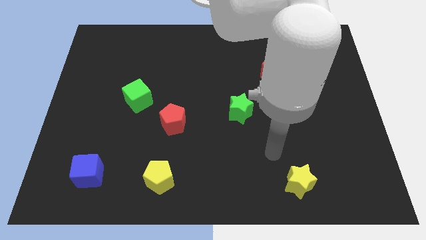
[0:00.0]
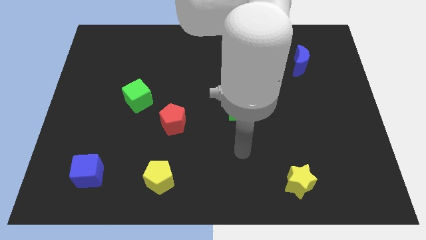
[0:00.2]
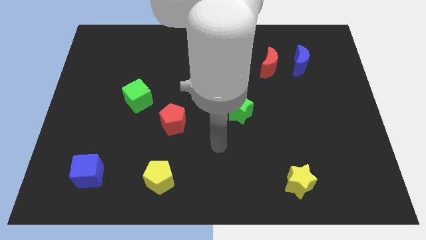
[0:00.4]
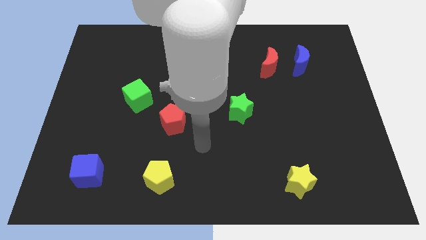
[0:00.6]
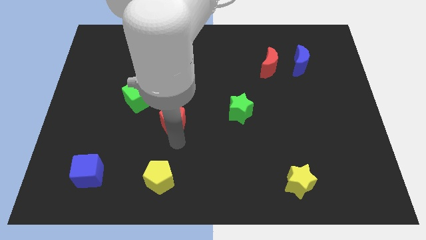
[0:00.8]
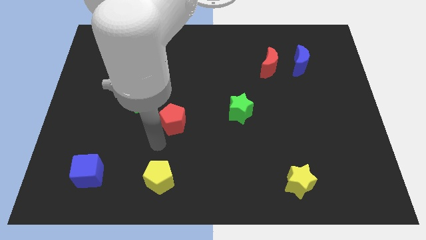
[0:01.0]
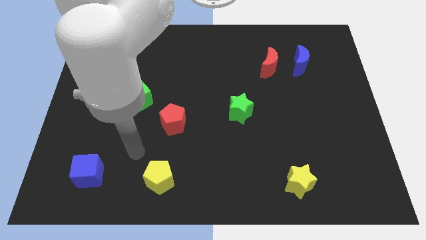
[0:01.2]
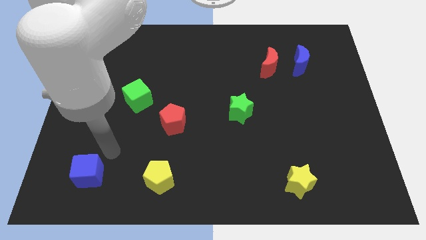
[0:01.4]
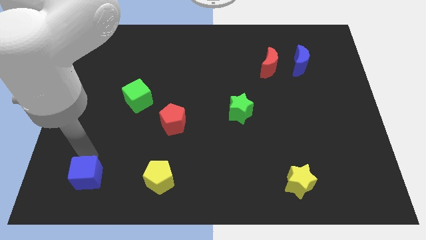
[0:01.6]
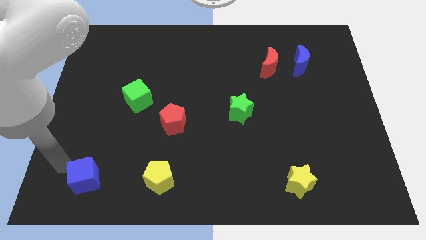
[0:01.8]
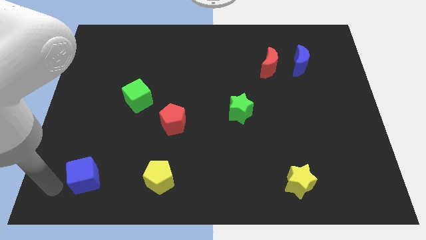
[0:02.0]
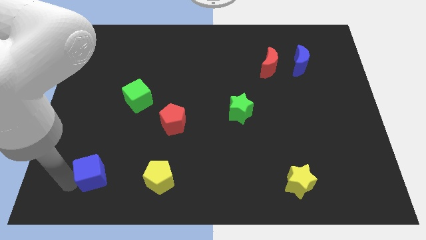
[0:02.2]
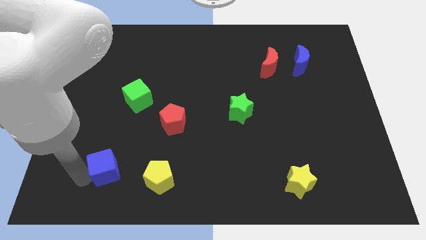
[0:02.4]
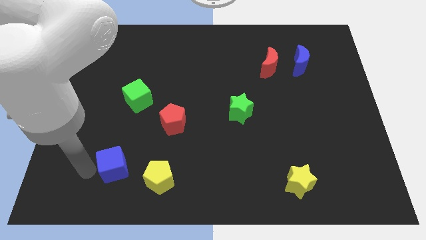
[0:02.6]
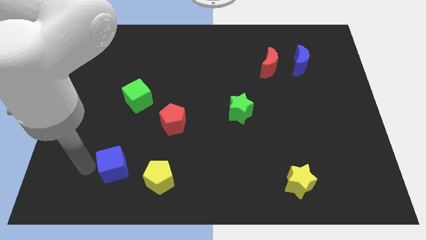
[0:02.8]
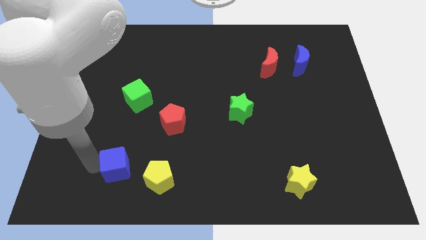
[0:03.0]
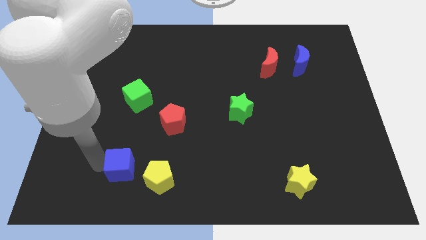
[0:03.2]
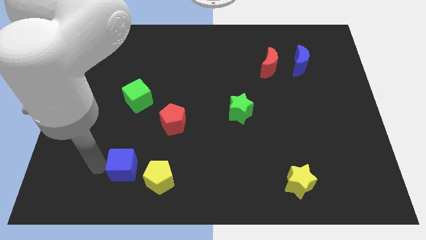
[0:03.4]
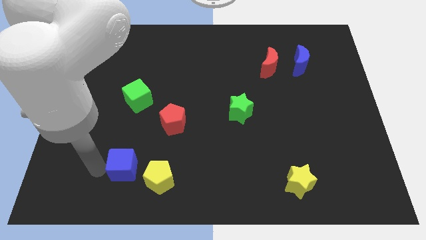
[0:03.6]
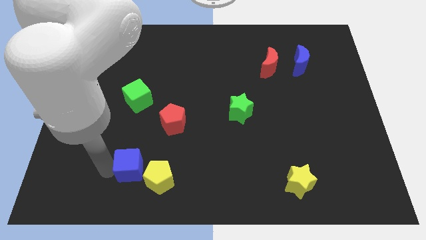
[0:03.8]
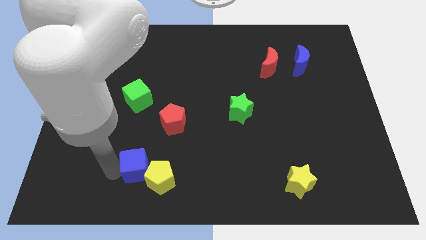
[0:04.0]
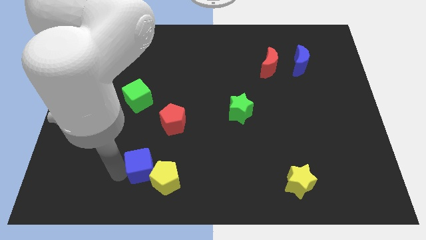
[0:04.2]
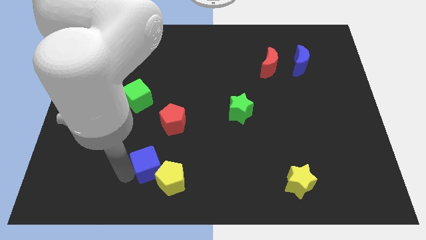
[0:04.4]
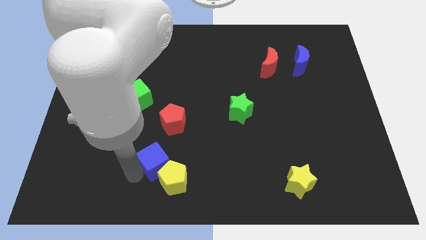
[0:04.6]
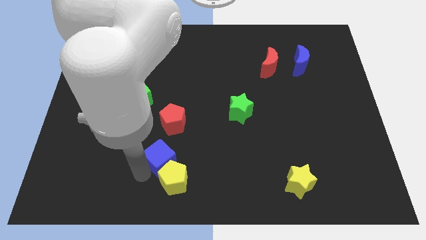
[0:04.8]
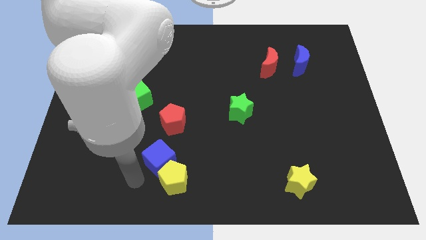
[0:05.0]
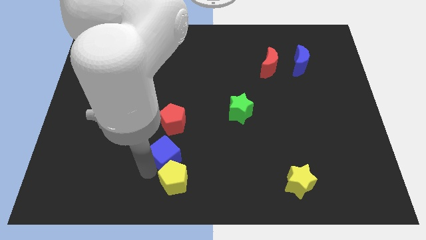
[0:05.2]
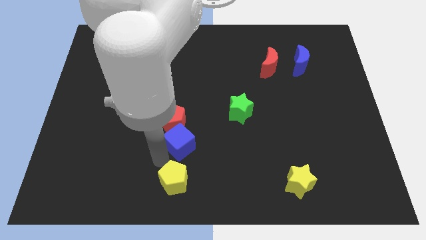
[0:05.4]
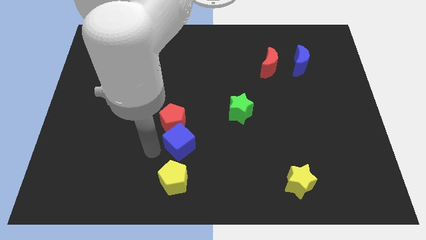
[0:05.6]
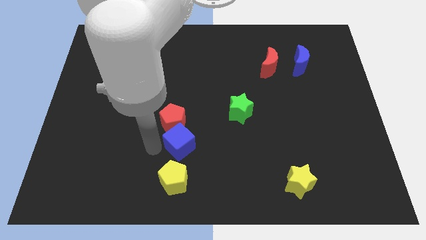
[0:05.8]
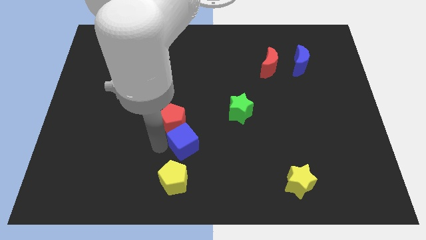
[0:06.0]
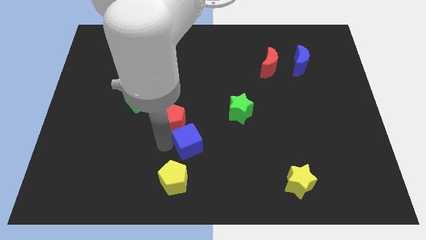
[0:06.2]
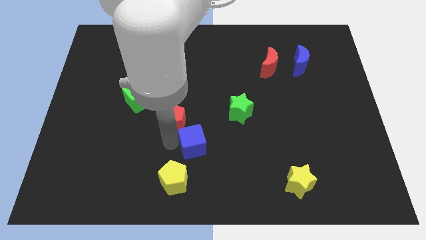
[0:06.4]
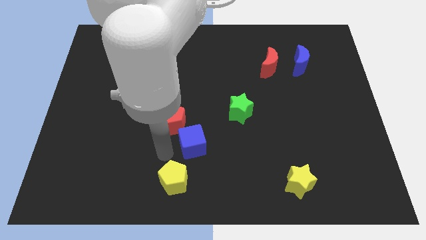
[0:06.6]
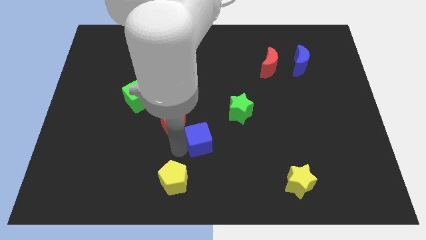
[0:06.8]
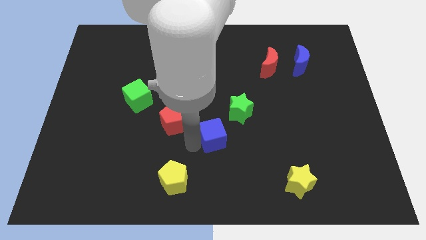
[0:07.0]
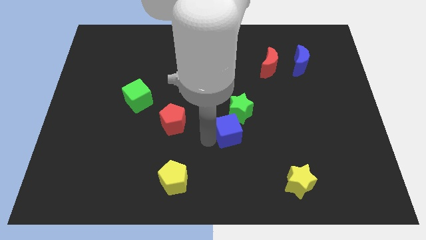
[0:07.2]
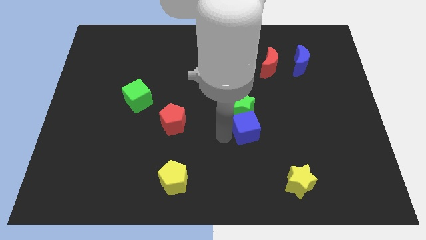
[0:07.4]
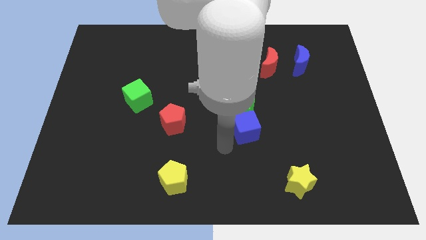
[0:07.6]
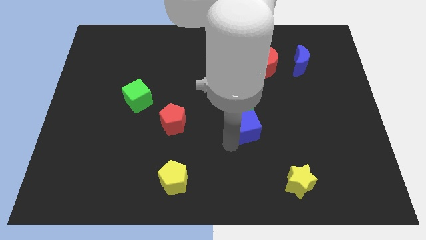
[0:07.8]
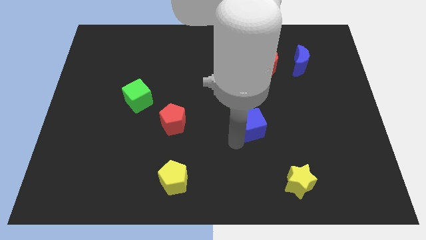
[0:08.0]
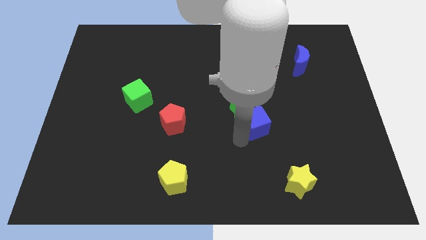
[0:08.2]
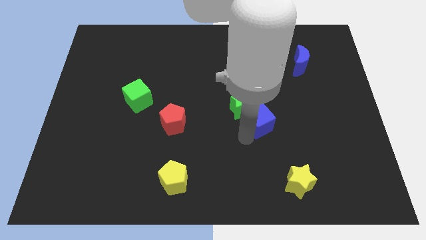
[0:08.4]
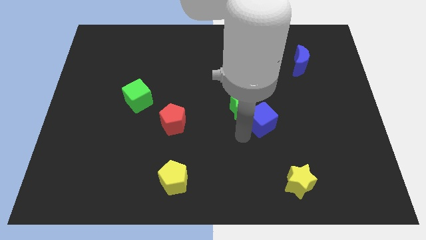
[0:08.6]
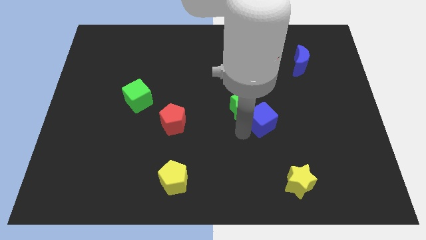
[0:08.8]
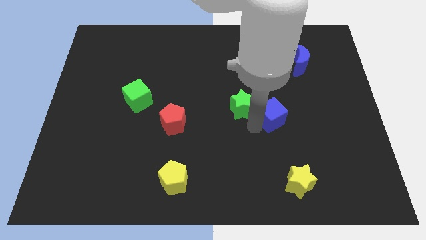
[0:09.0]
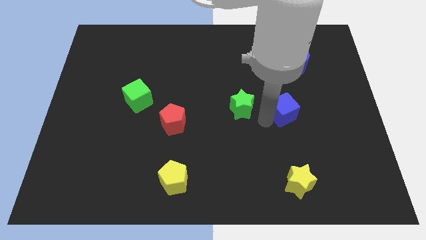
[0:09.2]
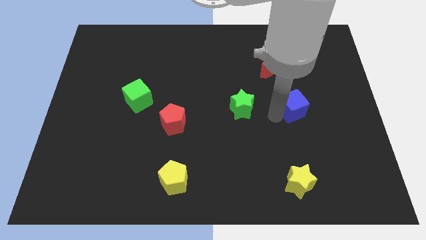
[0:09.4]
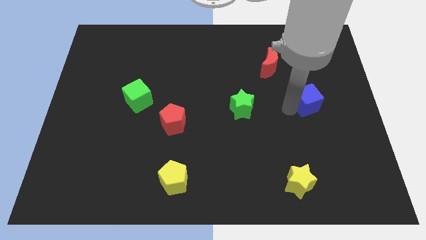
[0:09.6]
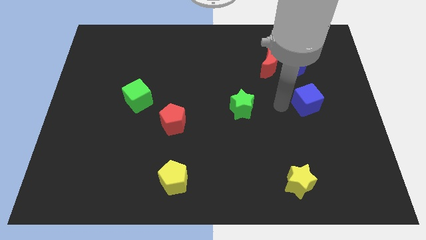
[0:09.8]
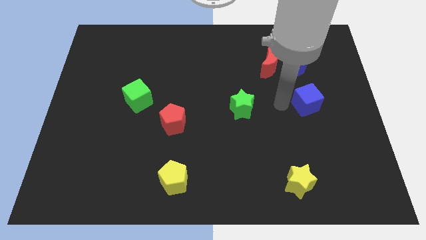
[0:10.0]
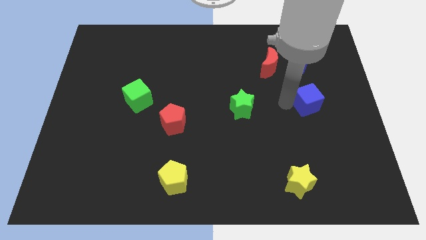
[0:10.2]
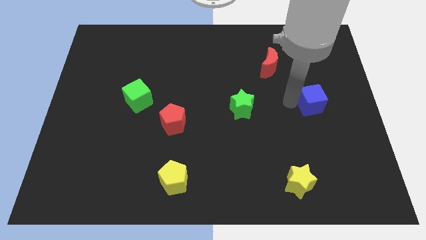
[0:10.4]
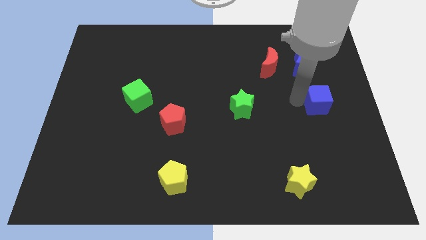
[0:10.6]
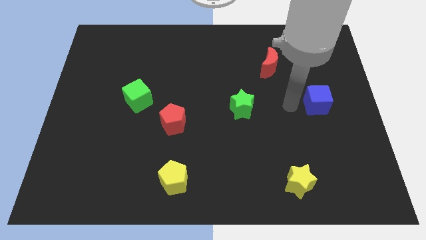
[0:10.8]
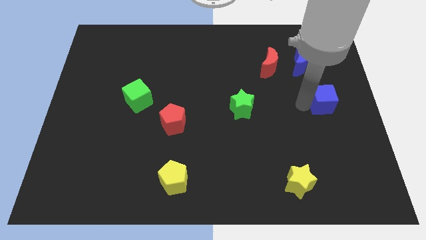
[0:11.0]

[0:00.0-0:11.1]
put the blue cube to the center right

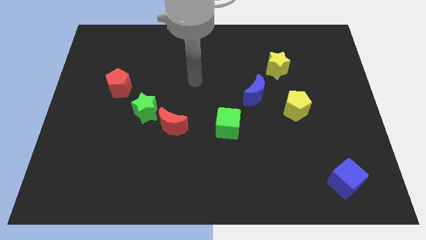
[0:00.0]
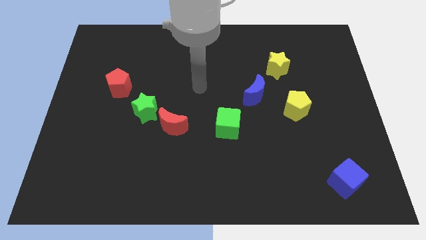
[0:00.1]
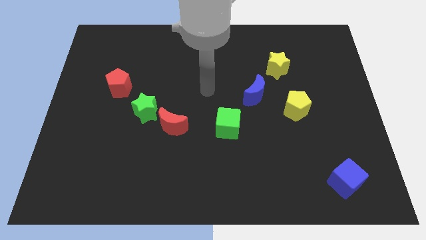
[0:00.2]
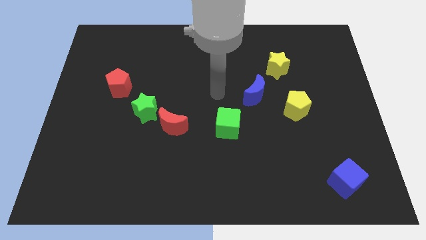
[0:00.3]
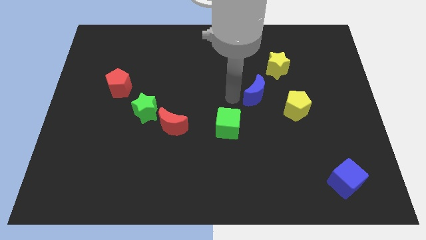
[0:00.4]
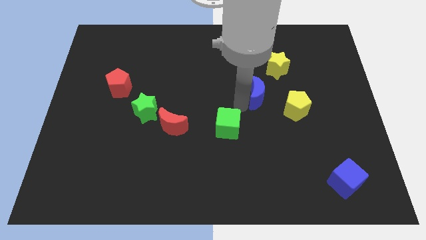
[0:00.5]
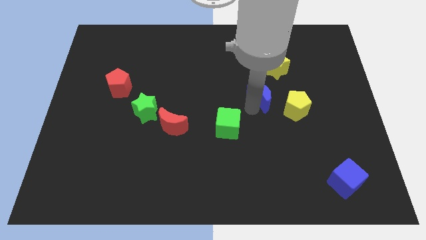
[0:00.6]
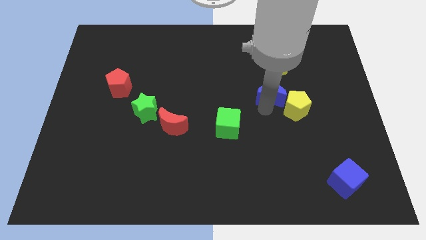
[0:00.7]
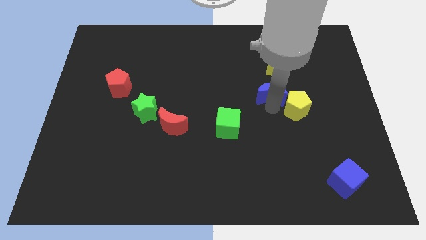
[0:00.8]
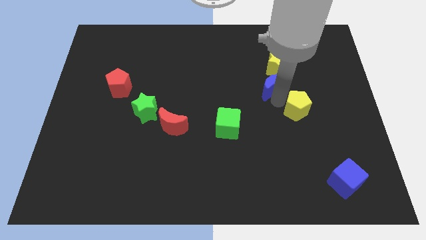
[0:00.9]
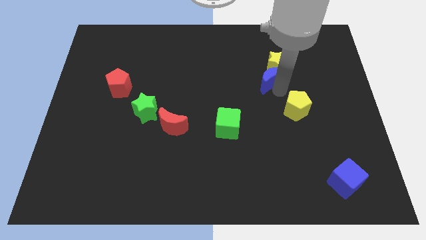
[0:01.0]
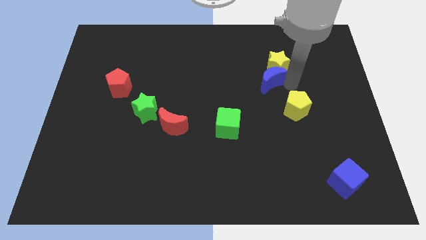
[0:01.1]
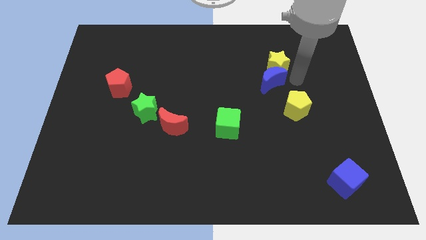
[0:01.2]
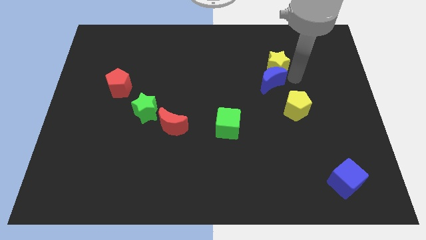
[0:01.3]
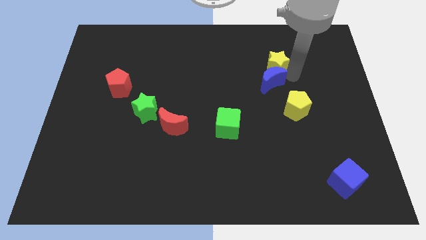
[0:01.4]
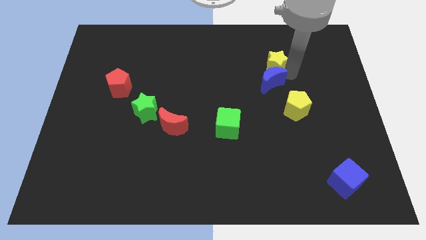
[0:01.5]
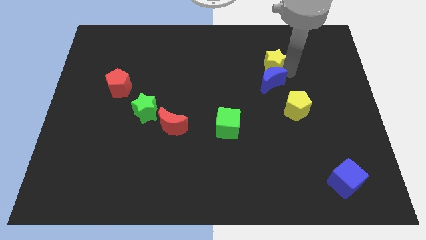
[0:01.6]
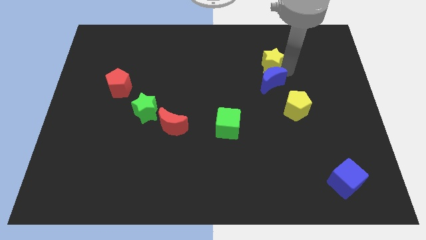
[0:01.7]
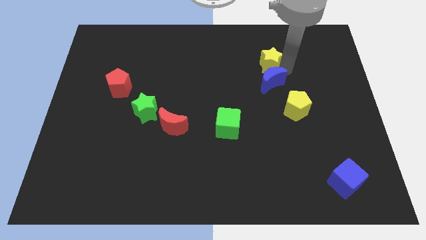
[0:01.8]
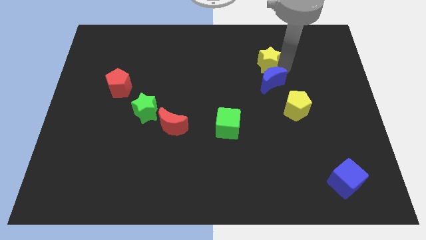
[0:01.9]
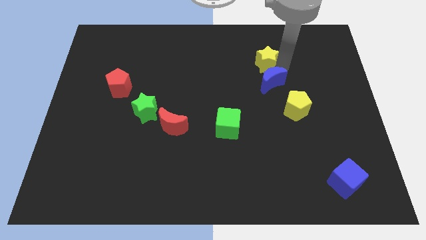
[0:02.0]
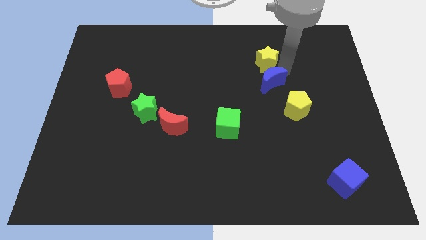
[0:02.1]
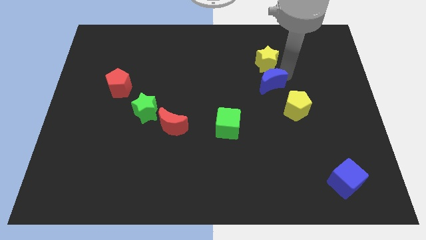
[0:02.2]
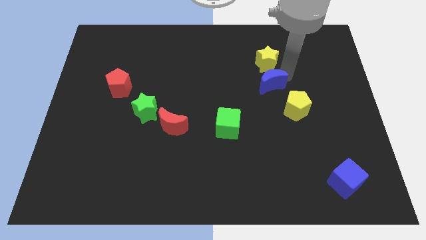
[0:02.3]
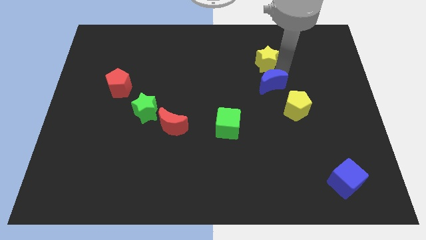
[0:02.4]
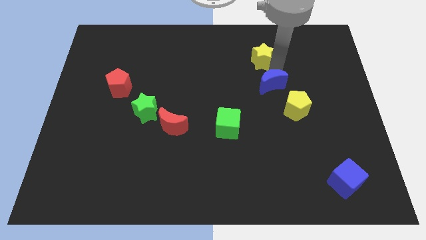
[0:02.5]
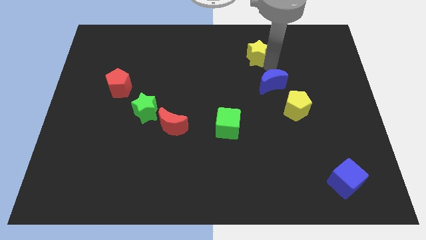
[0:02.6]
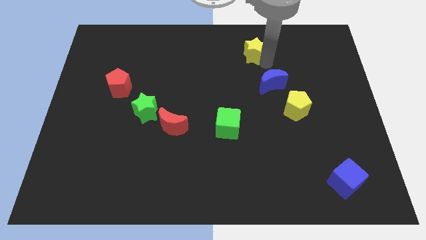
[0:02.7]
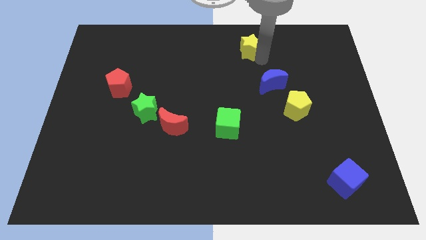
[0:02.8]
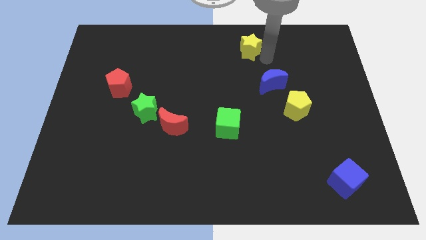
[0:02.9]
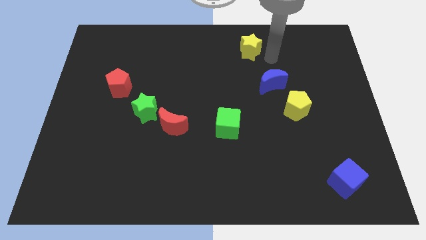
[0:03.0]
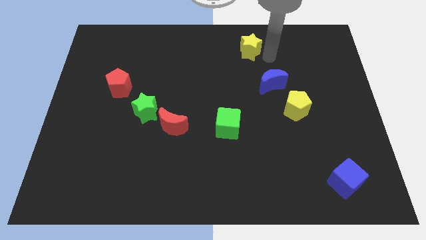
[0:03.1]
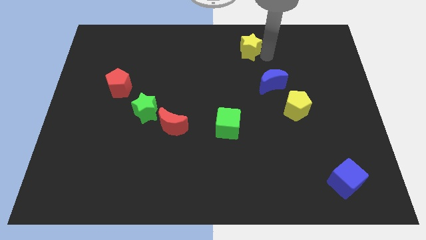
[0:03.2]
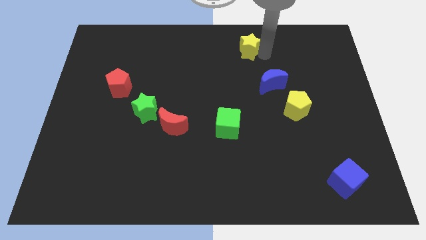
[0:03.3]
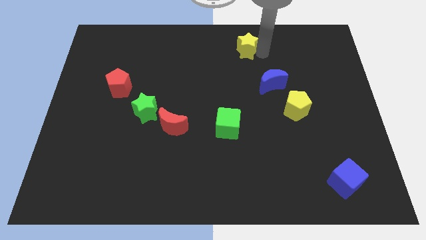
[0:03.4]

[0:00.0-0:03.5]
put the yellow star to the towards your base
